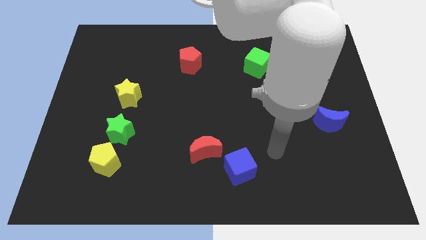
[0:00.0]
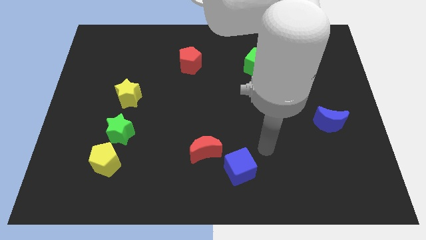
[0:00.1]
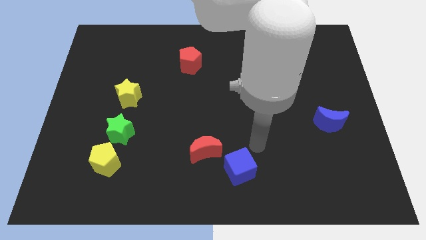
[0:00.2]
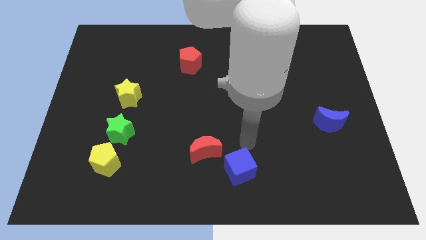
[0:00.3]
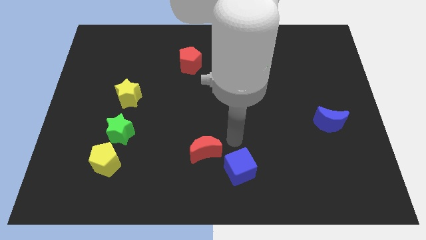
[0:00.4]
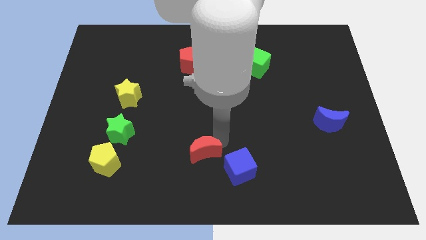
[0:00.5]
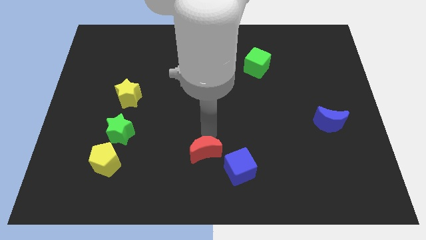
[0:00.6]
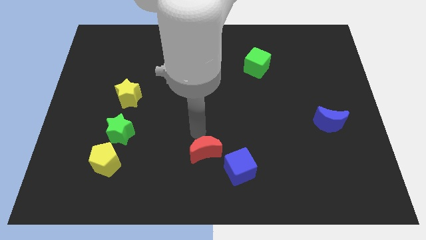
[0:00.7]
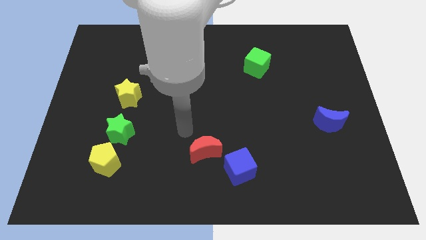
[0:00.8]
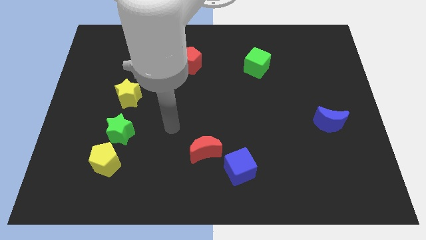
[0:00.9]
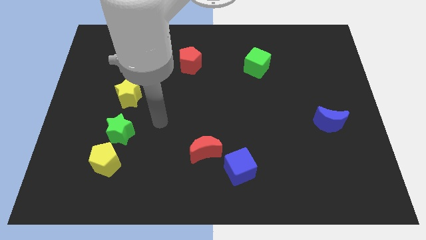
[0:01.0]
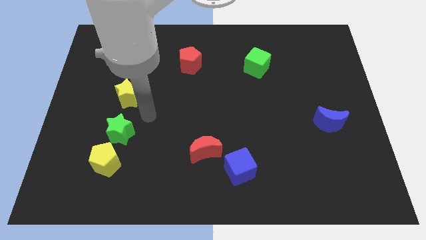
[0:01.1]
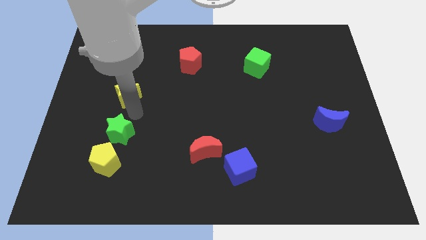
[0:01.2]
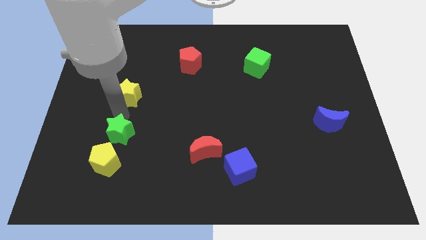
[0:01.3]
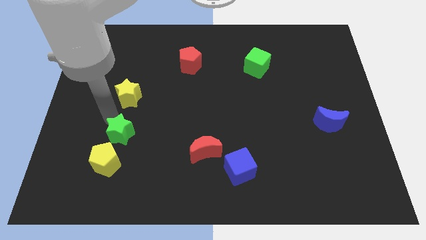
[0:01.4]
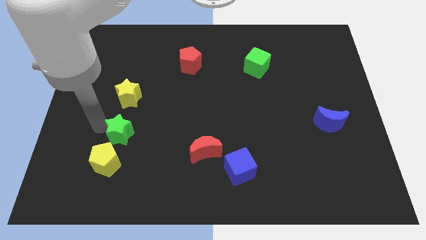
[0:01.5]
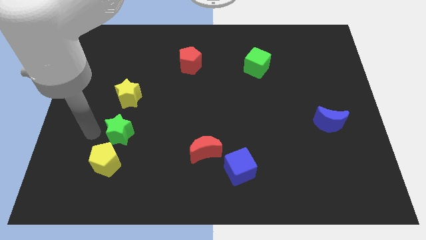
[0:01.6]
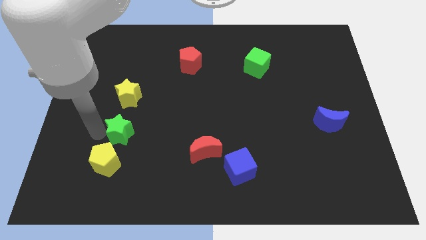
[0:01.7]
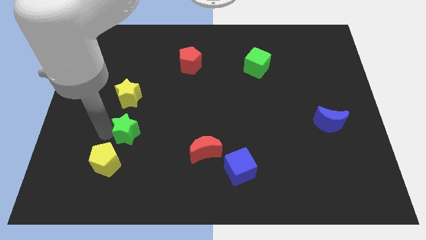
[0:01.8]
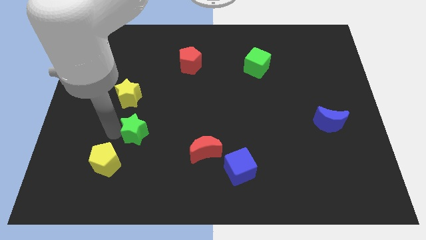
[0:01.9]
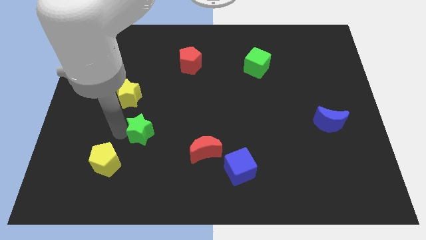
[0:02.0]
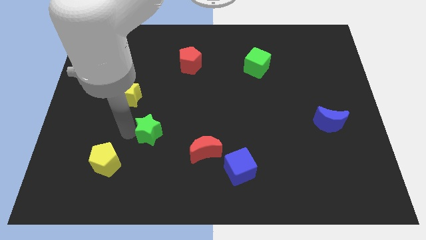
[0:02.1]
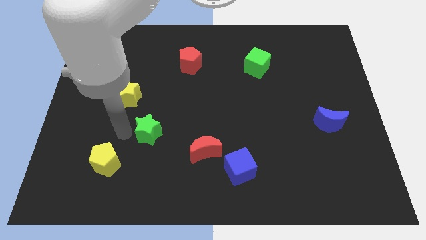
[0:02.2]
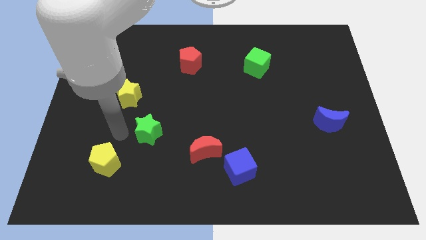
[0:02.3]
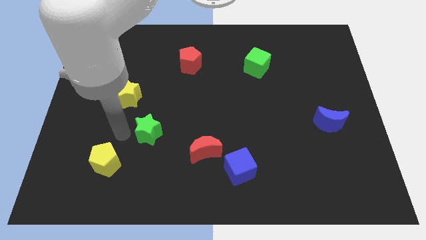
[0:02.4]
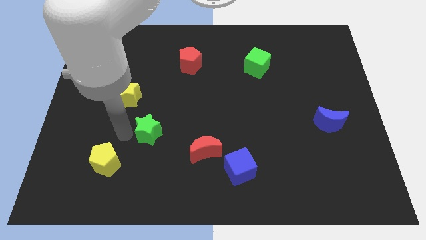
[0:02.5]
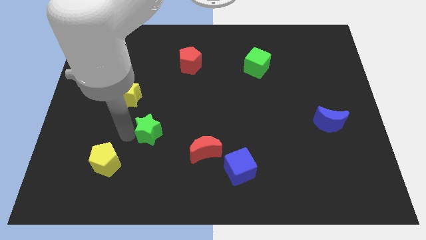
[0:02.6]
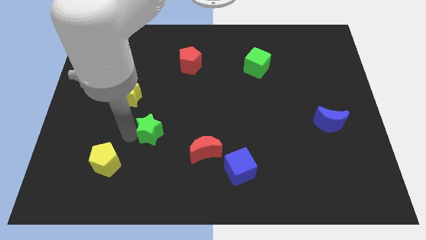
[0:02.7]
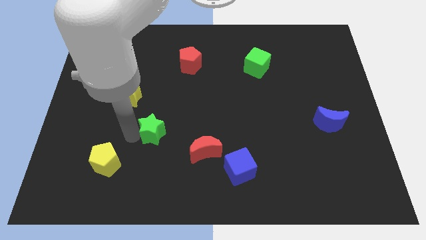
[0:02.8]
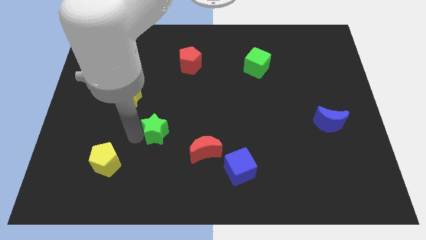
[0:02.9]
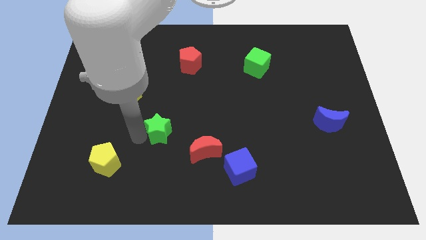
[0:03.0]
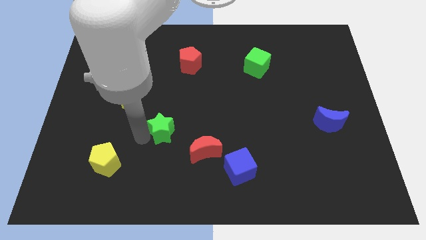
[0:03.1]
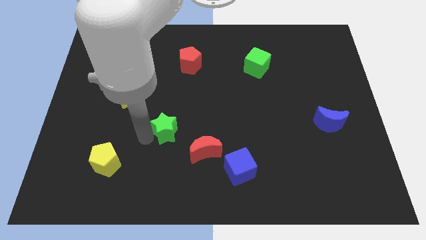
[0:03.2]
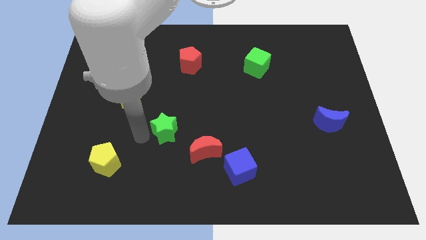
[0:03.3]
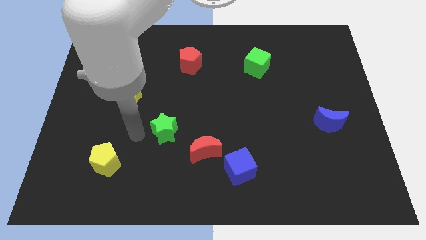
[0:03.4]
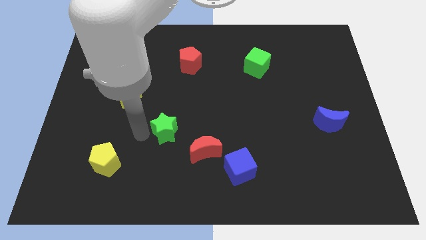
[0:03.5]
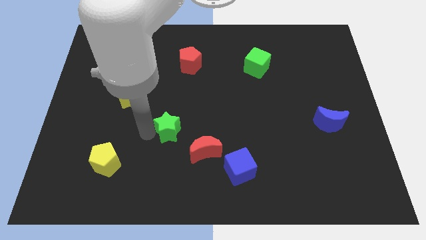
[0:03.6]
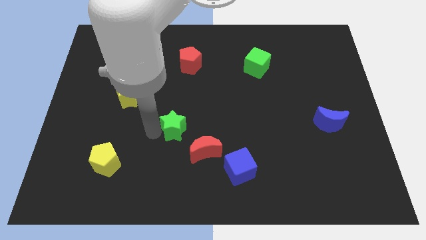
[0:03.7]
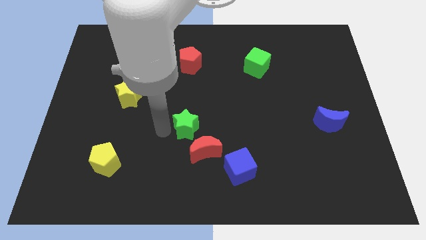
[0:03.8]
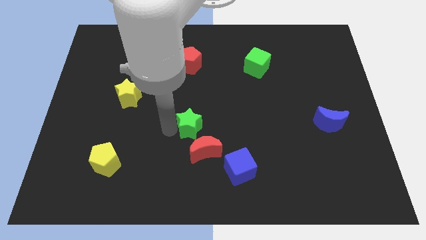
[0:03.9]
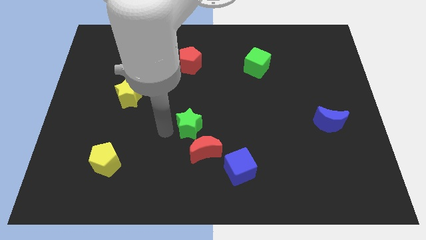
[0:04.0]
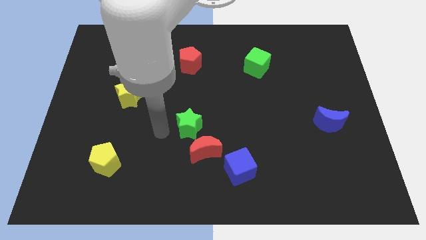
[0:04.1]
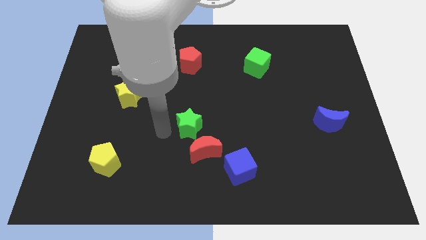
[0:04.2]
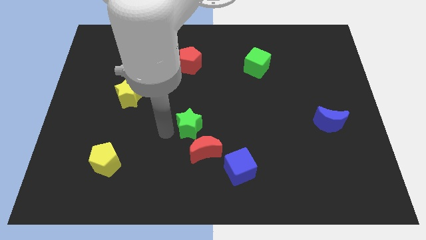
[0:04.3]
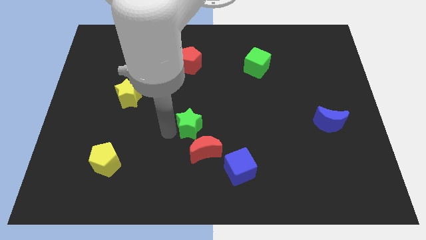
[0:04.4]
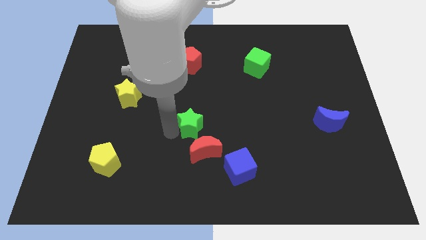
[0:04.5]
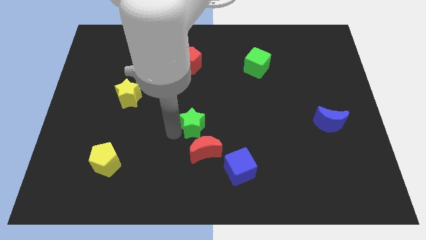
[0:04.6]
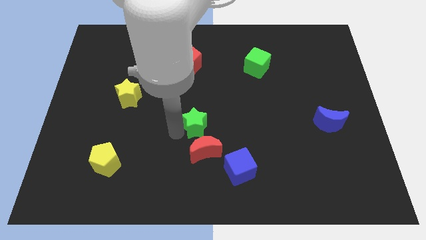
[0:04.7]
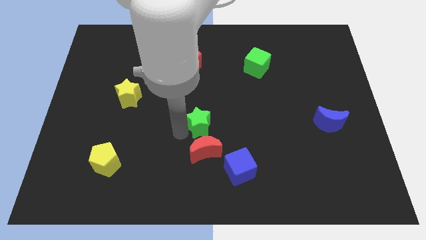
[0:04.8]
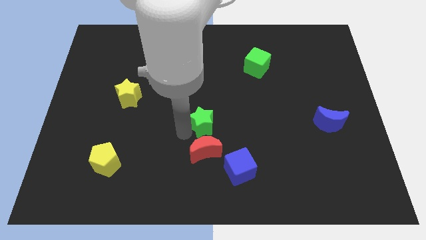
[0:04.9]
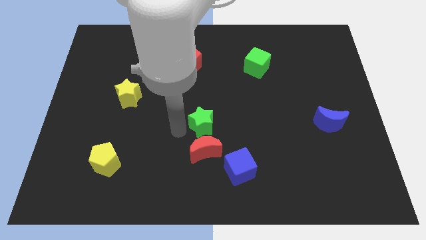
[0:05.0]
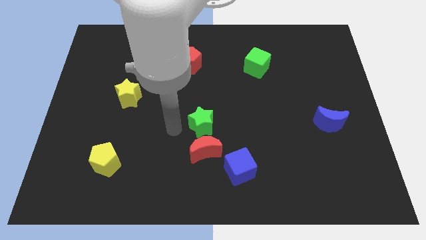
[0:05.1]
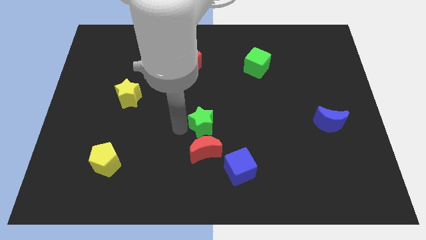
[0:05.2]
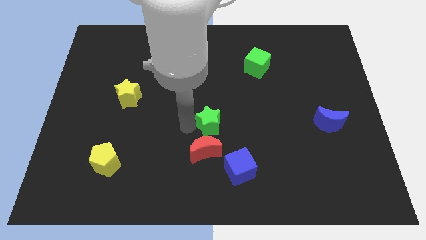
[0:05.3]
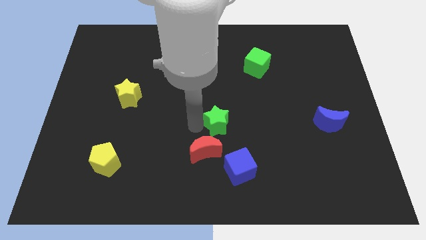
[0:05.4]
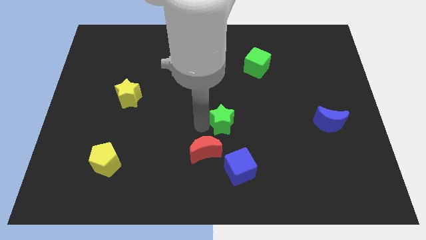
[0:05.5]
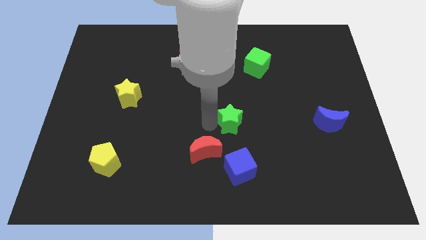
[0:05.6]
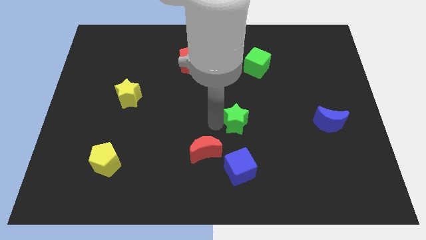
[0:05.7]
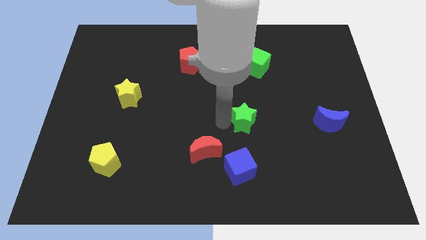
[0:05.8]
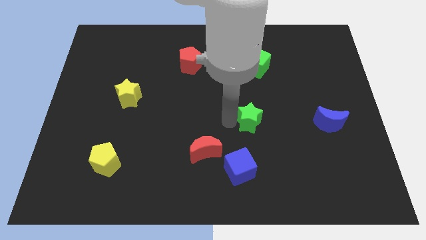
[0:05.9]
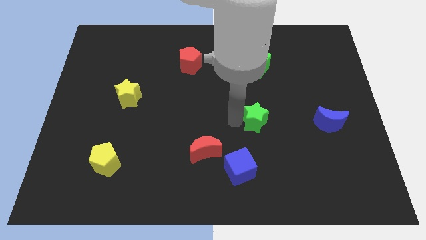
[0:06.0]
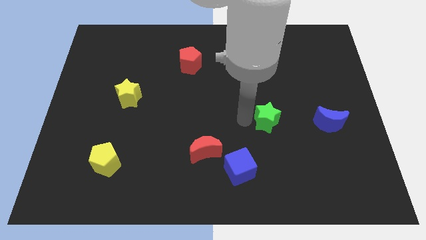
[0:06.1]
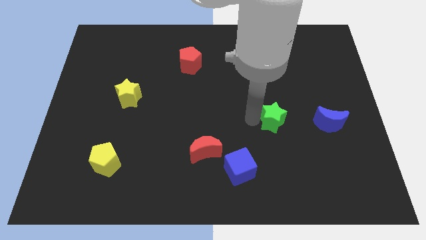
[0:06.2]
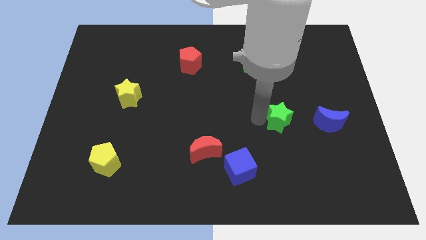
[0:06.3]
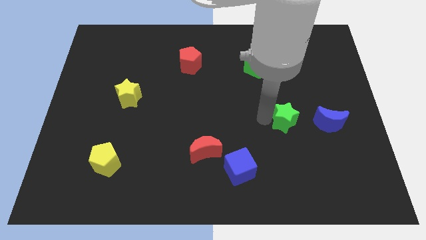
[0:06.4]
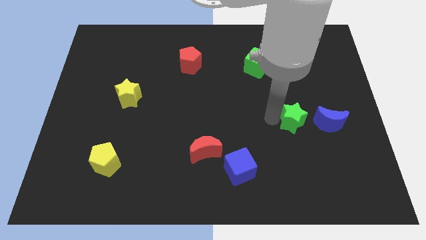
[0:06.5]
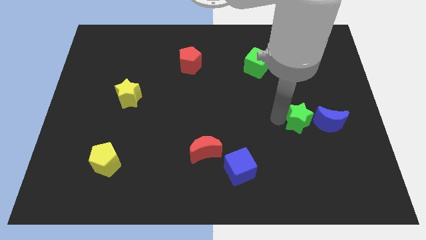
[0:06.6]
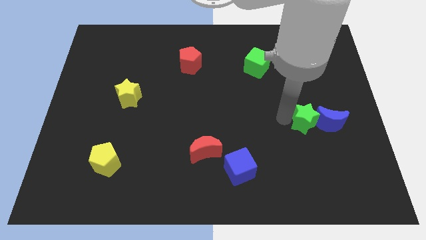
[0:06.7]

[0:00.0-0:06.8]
push the green star close to the blue moon

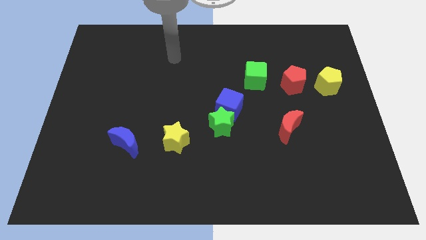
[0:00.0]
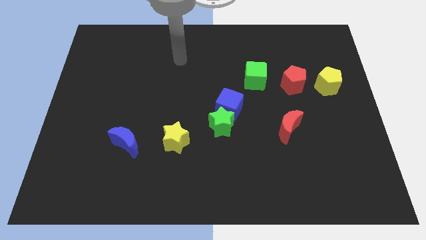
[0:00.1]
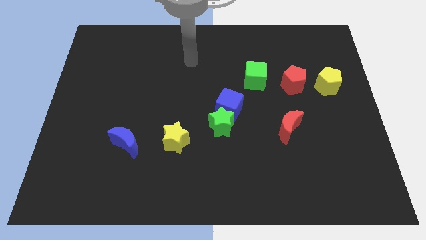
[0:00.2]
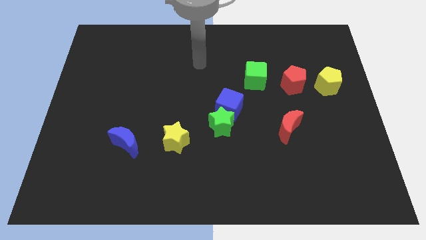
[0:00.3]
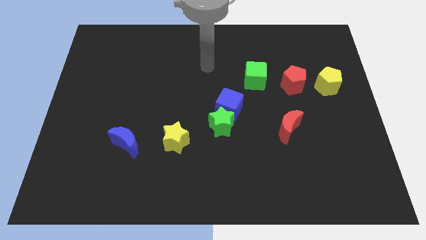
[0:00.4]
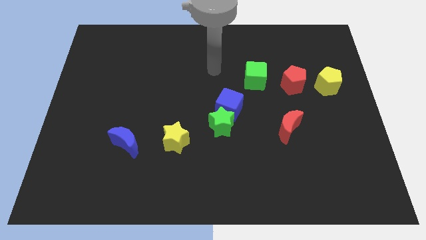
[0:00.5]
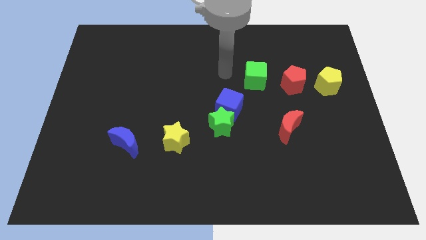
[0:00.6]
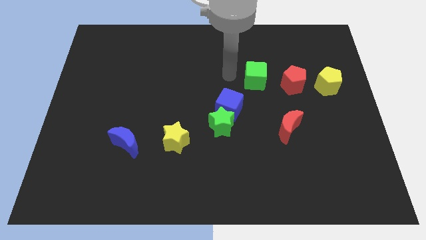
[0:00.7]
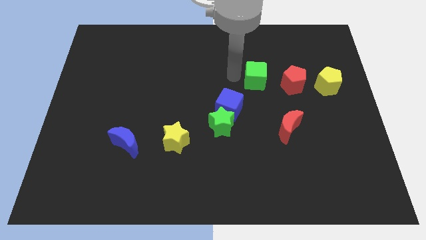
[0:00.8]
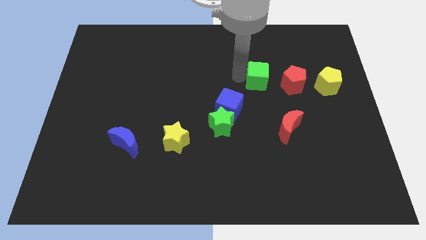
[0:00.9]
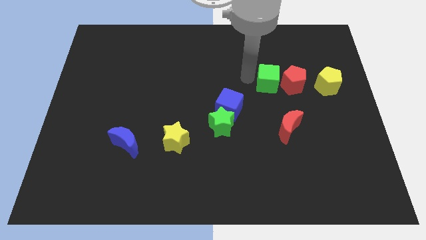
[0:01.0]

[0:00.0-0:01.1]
put the green cube close to the red pentagon
